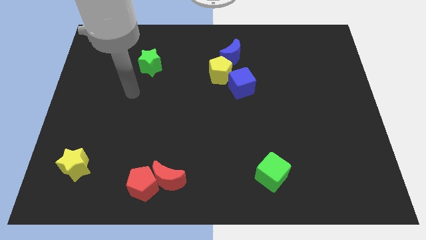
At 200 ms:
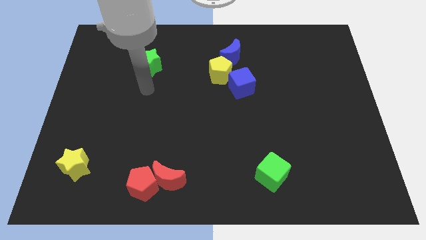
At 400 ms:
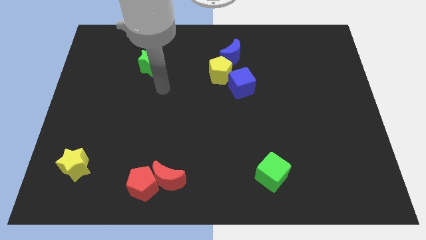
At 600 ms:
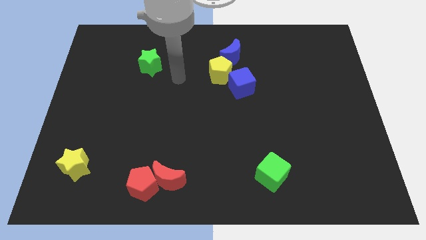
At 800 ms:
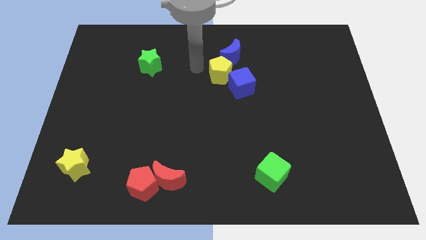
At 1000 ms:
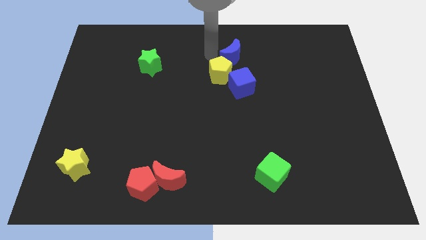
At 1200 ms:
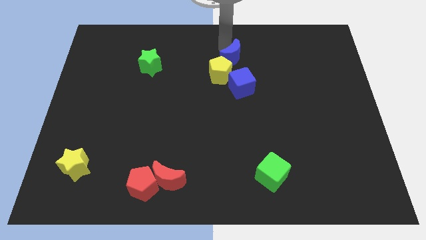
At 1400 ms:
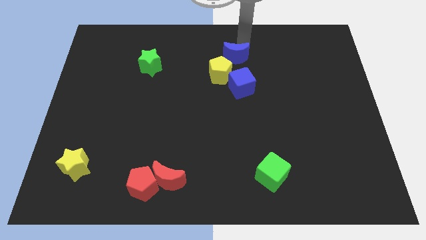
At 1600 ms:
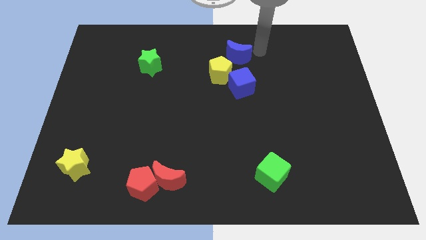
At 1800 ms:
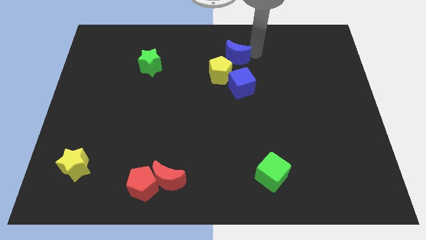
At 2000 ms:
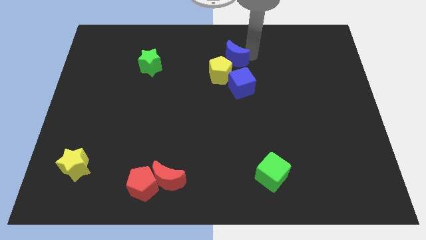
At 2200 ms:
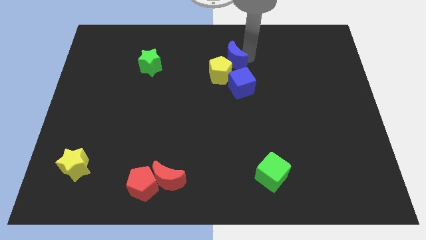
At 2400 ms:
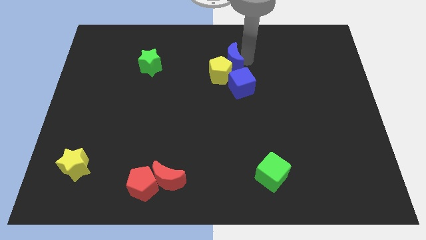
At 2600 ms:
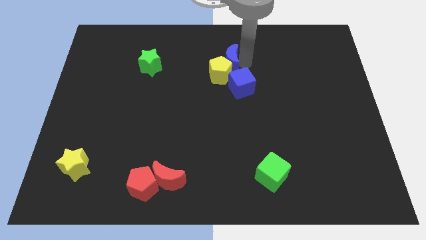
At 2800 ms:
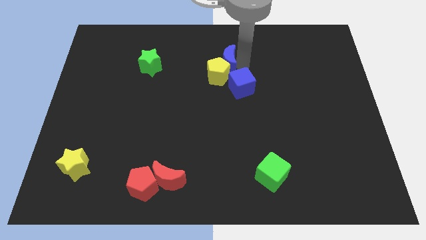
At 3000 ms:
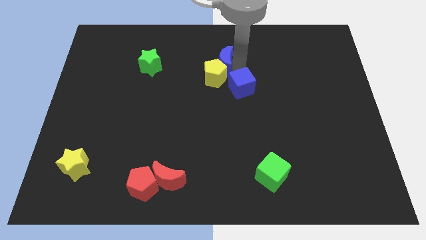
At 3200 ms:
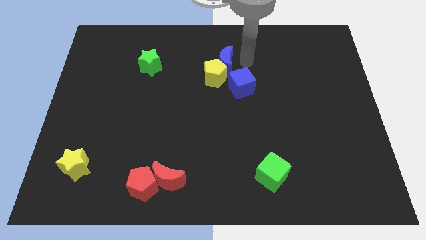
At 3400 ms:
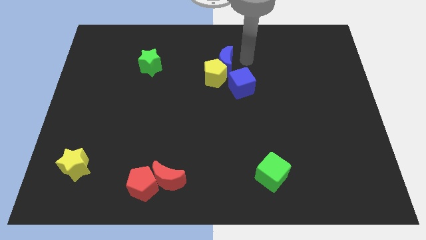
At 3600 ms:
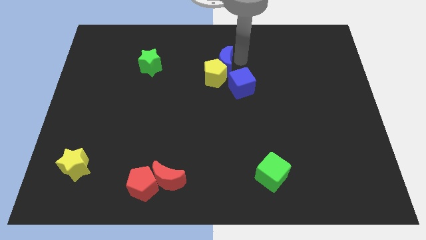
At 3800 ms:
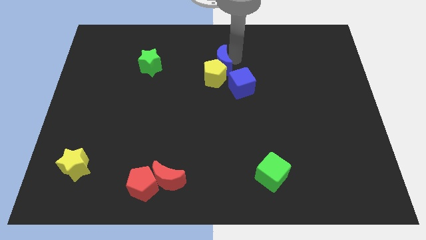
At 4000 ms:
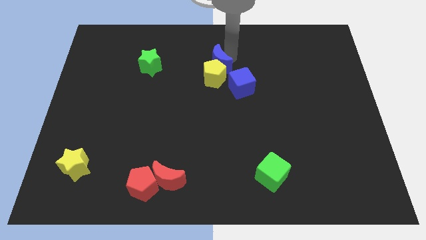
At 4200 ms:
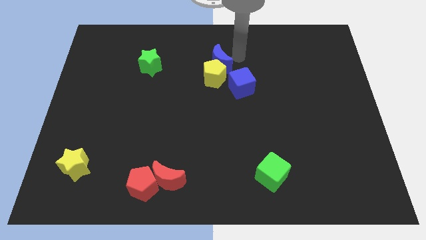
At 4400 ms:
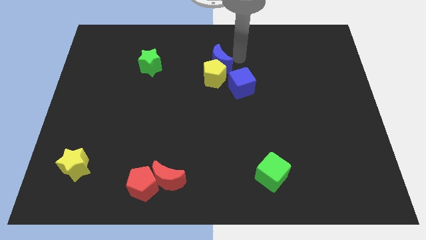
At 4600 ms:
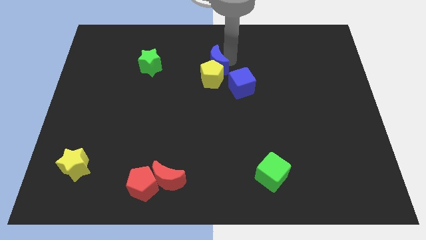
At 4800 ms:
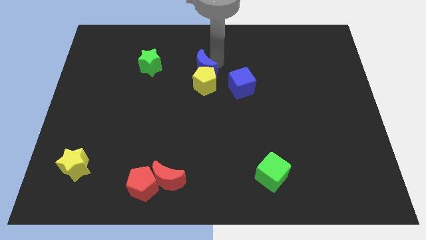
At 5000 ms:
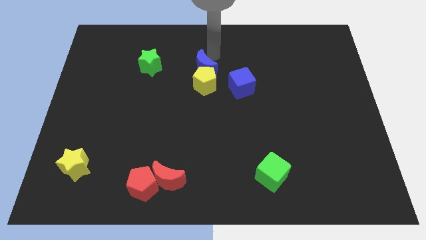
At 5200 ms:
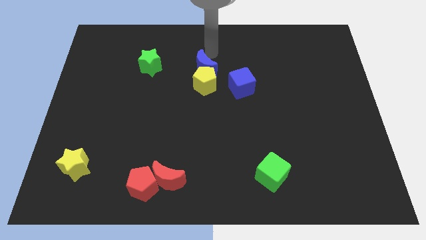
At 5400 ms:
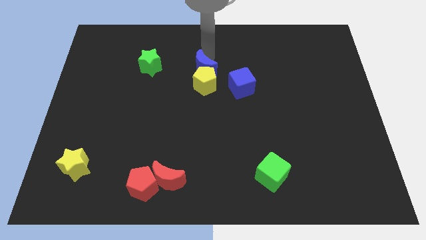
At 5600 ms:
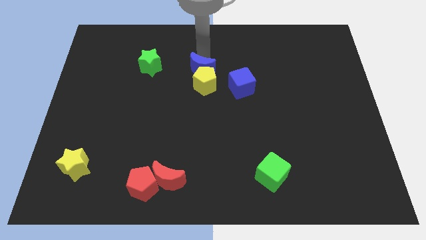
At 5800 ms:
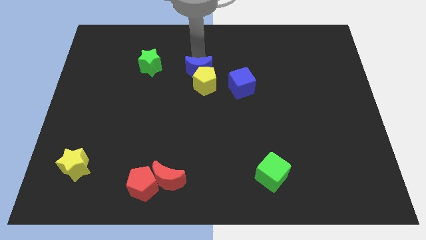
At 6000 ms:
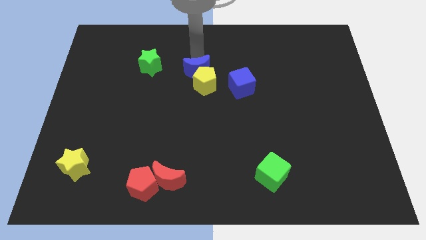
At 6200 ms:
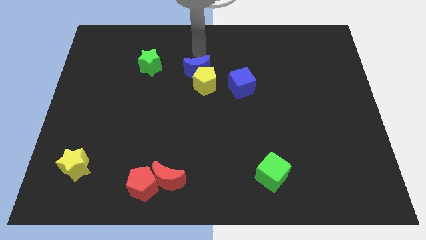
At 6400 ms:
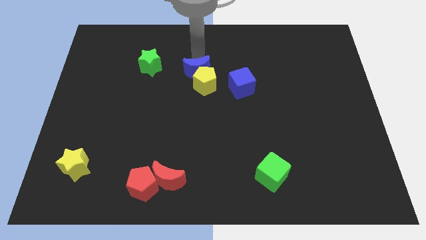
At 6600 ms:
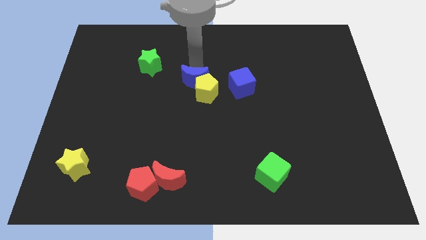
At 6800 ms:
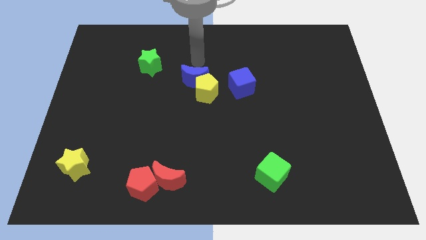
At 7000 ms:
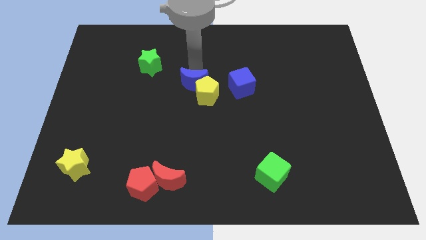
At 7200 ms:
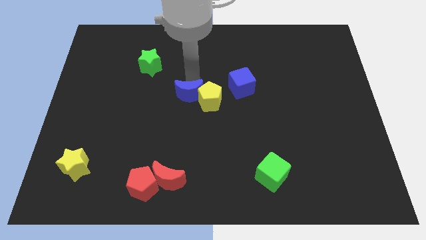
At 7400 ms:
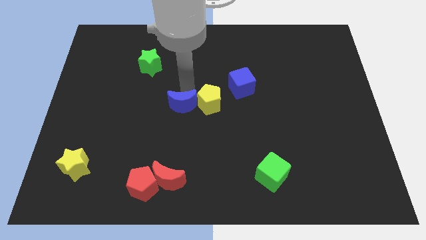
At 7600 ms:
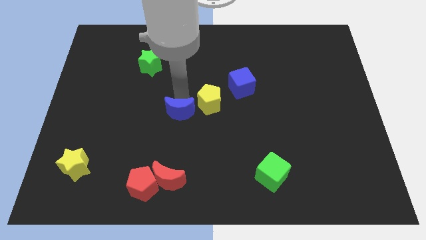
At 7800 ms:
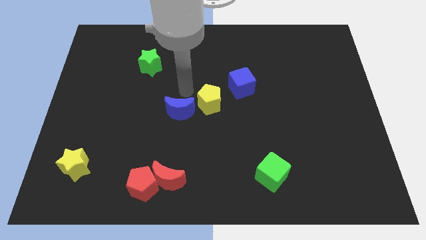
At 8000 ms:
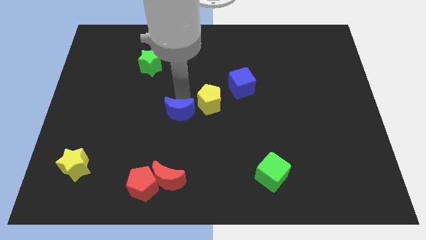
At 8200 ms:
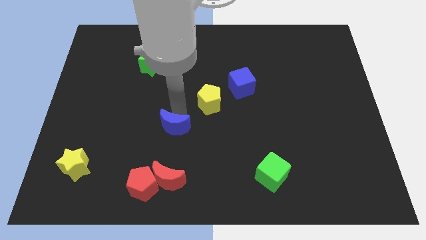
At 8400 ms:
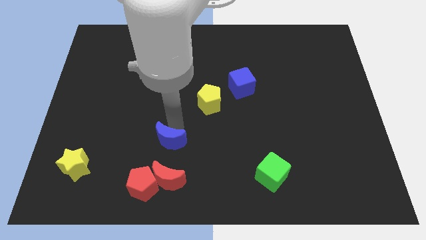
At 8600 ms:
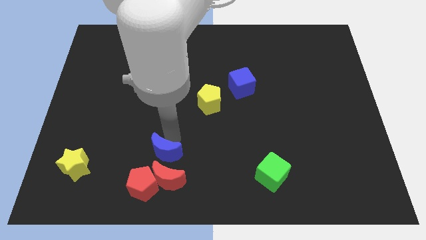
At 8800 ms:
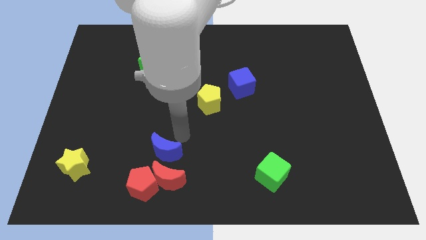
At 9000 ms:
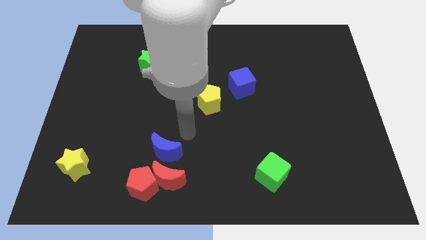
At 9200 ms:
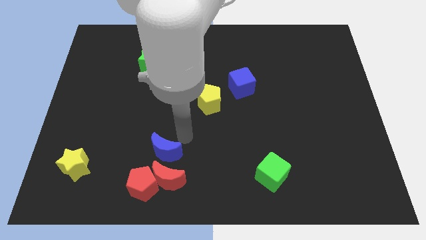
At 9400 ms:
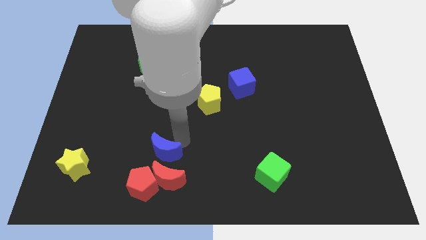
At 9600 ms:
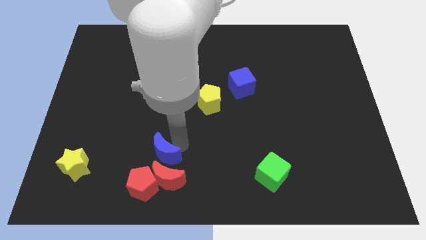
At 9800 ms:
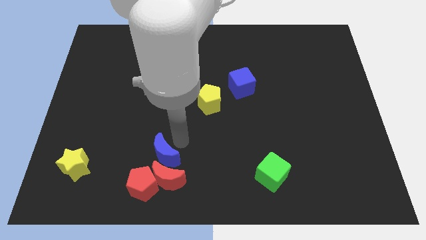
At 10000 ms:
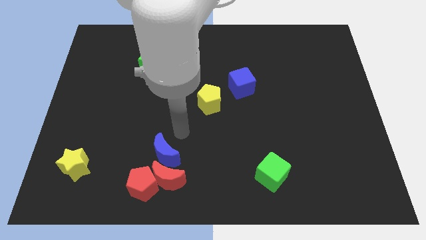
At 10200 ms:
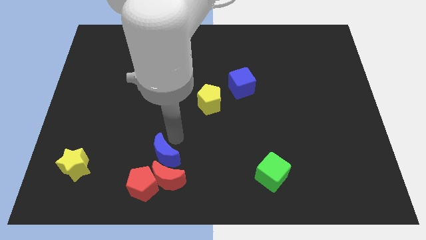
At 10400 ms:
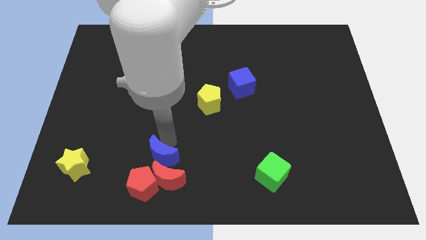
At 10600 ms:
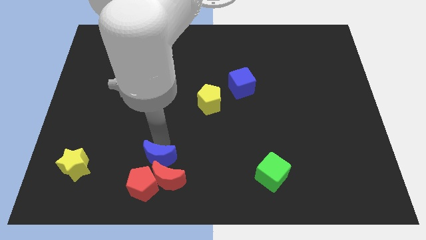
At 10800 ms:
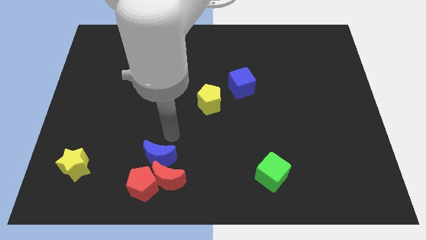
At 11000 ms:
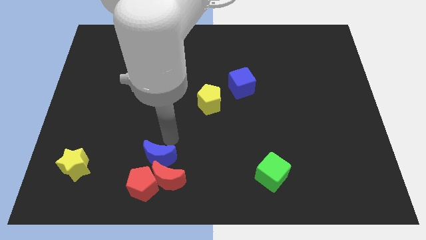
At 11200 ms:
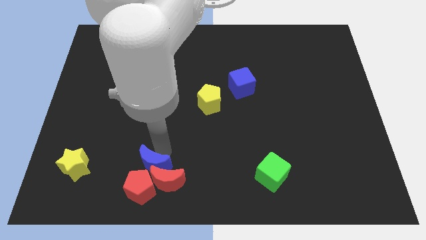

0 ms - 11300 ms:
put the blue moon close to the red pentagon
